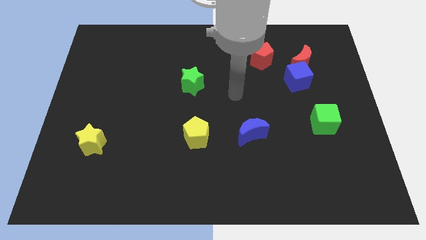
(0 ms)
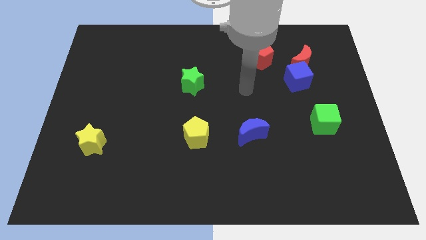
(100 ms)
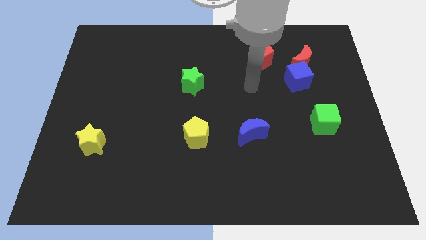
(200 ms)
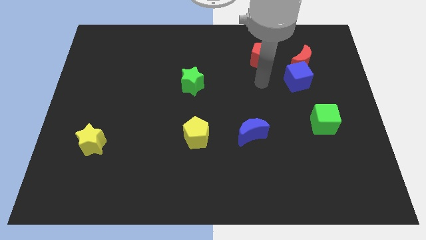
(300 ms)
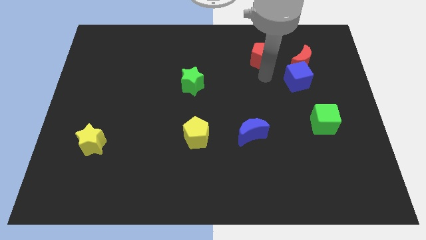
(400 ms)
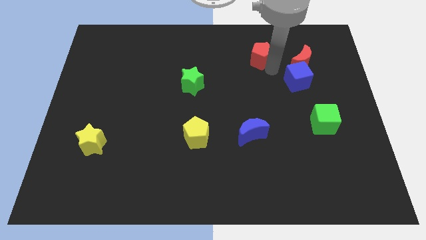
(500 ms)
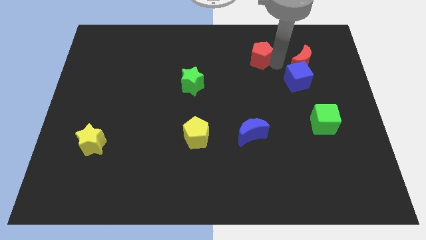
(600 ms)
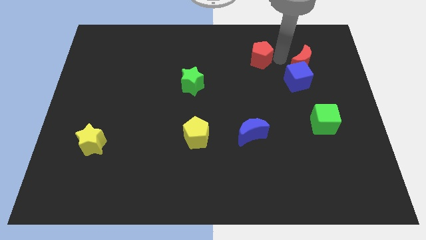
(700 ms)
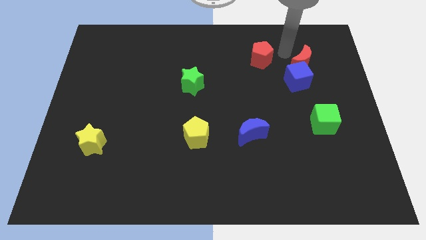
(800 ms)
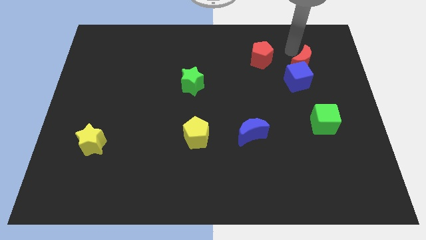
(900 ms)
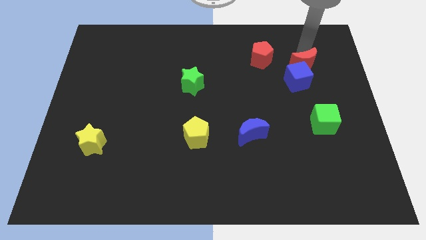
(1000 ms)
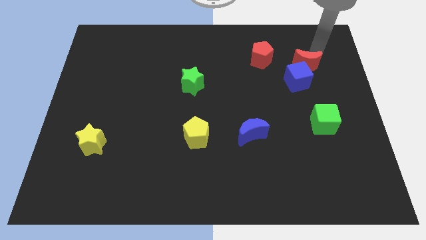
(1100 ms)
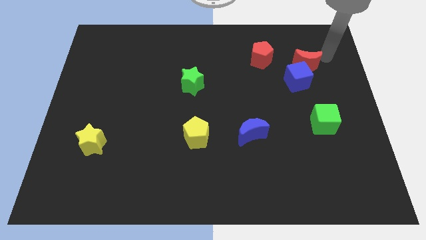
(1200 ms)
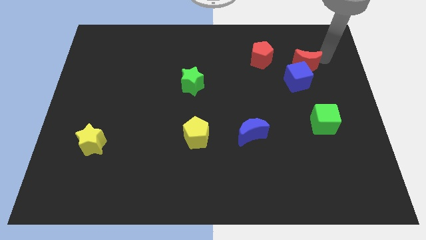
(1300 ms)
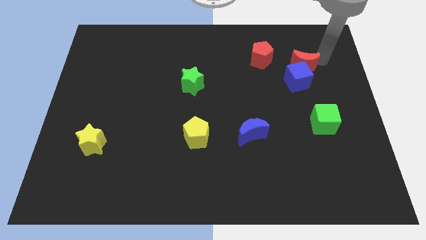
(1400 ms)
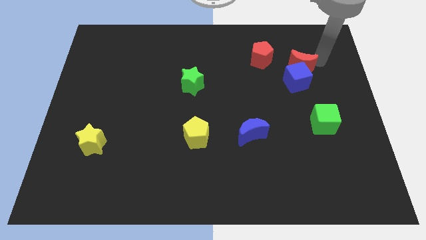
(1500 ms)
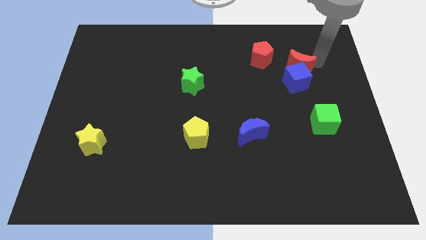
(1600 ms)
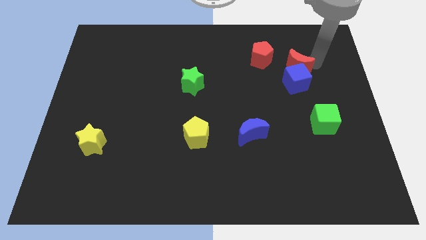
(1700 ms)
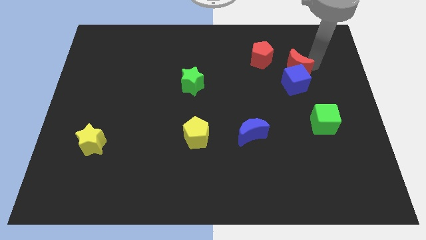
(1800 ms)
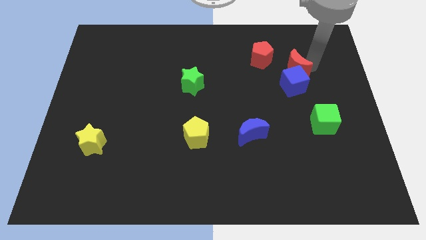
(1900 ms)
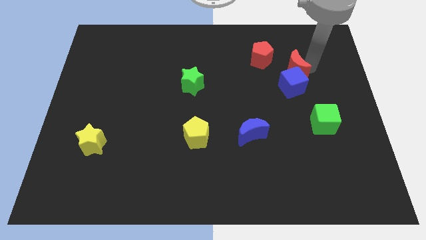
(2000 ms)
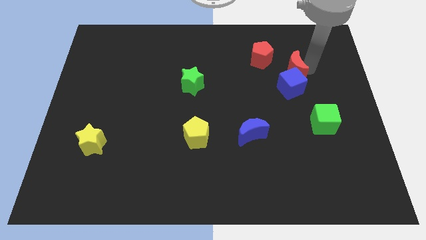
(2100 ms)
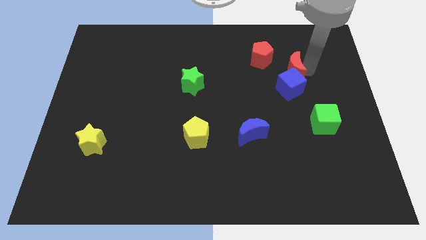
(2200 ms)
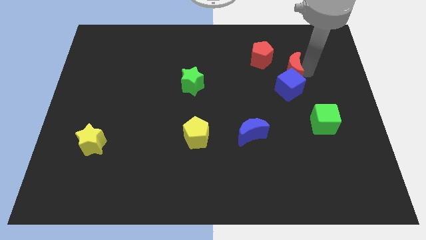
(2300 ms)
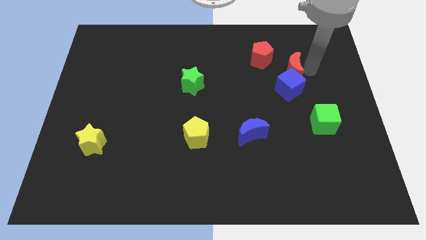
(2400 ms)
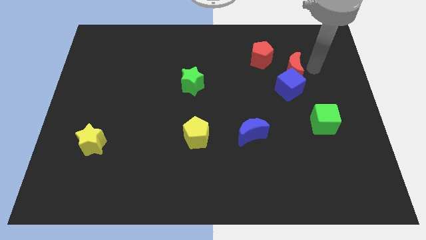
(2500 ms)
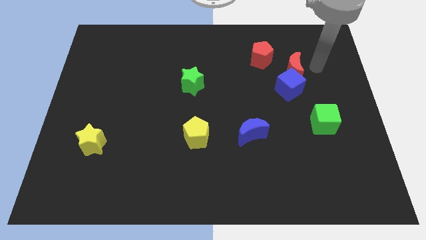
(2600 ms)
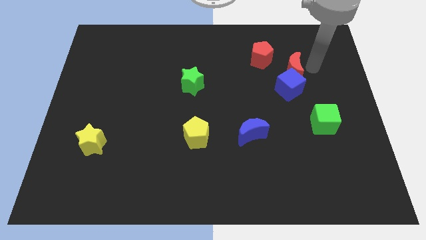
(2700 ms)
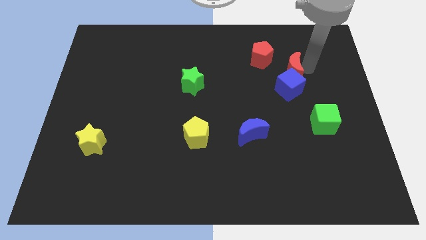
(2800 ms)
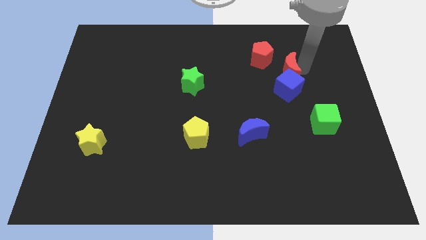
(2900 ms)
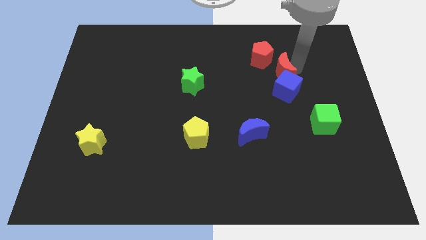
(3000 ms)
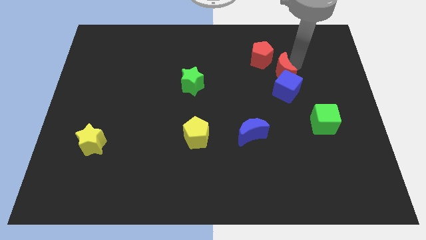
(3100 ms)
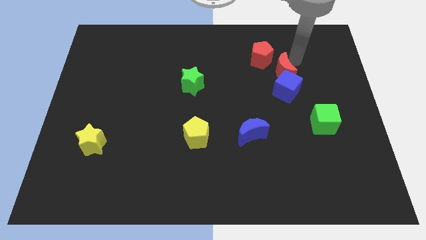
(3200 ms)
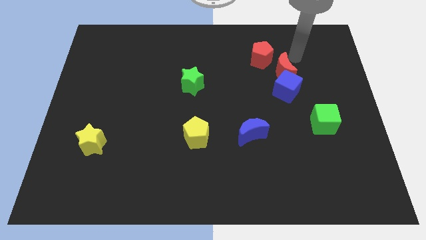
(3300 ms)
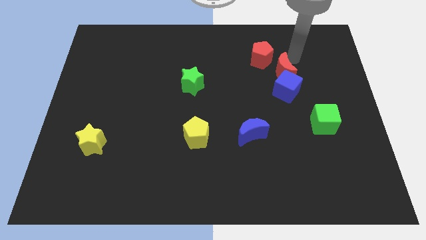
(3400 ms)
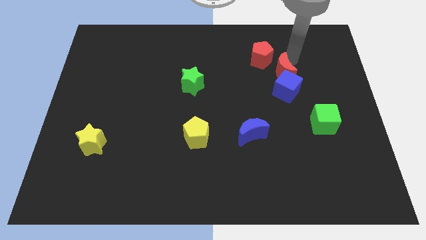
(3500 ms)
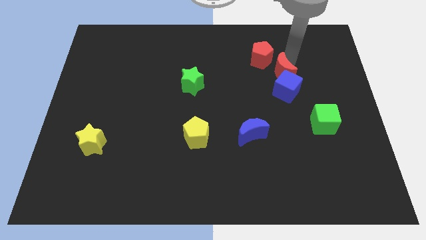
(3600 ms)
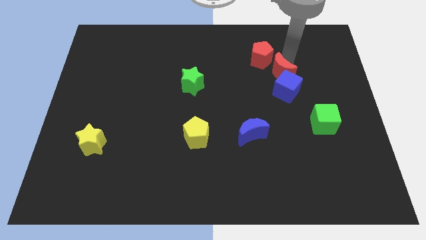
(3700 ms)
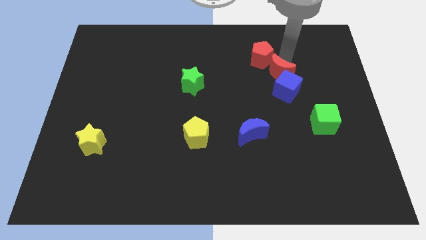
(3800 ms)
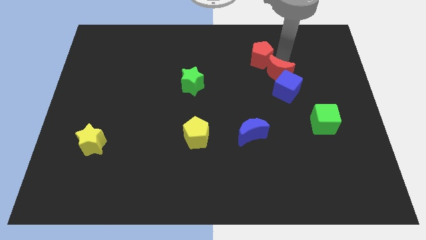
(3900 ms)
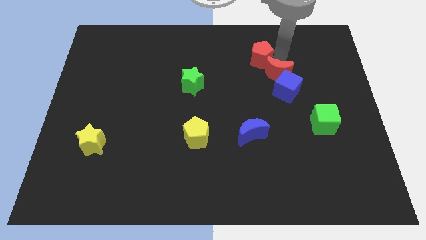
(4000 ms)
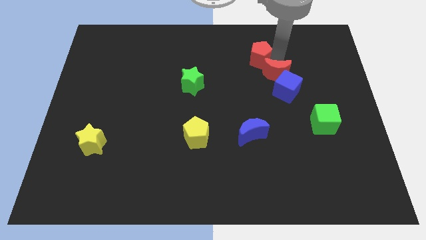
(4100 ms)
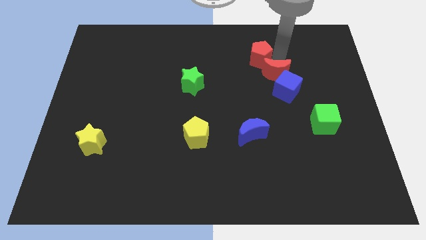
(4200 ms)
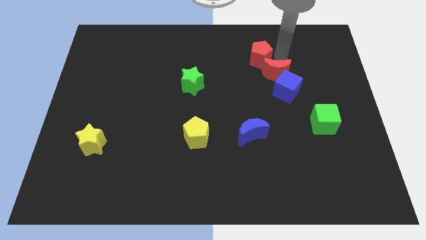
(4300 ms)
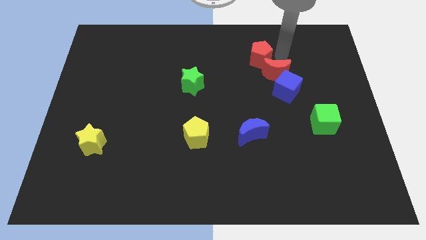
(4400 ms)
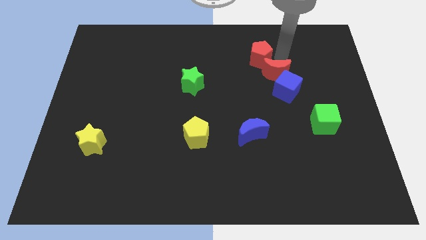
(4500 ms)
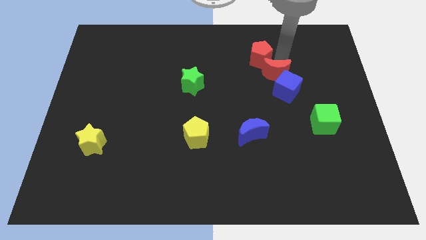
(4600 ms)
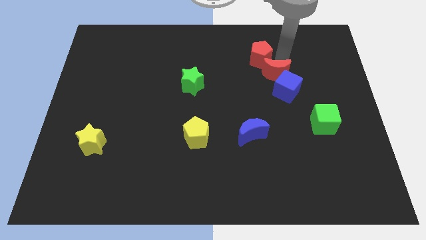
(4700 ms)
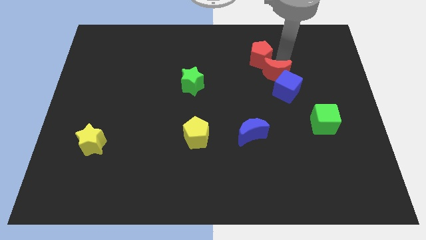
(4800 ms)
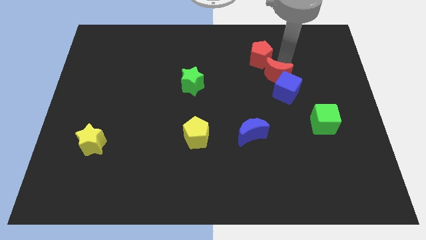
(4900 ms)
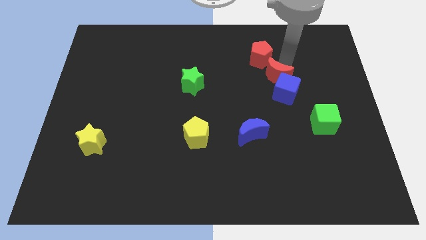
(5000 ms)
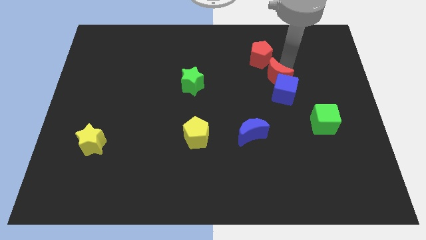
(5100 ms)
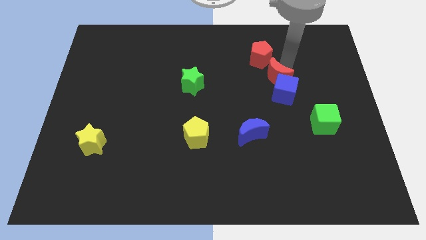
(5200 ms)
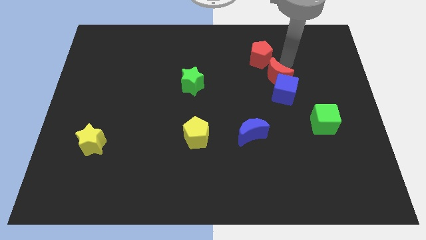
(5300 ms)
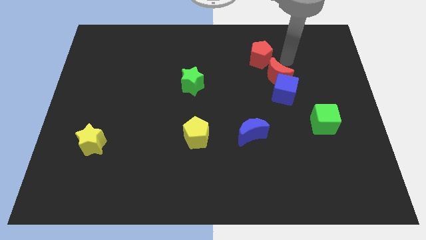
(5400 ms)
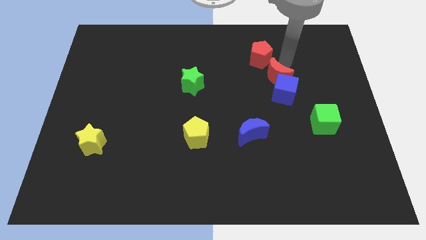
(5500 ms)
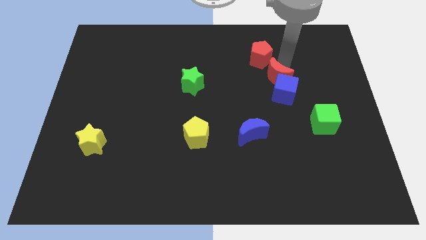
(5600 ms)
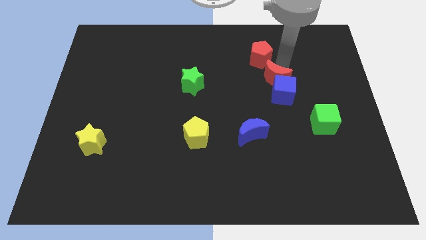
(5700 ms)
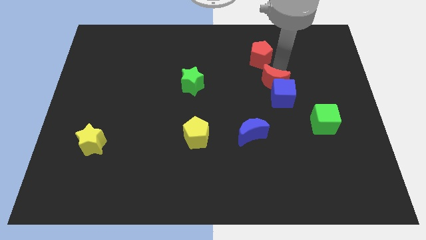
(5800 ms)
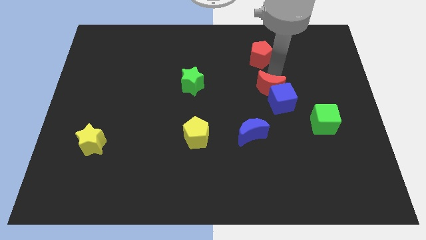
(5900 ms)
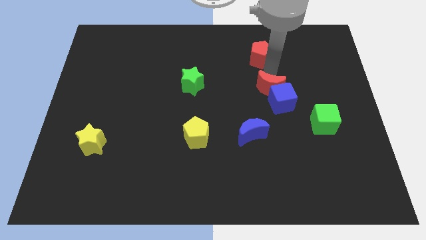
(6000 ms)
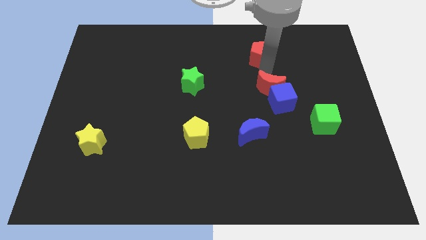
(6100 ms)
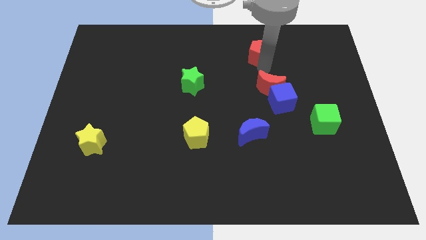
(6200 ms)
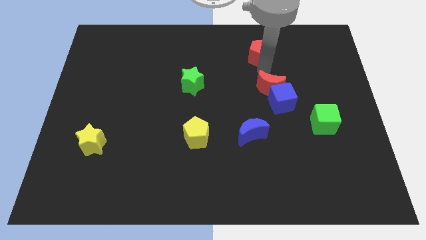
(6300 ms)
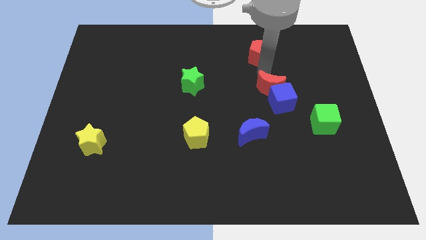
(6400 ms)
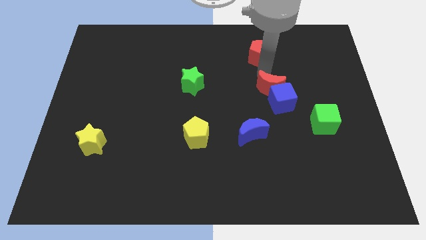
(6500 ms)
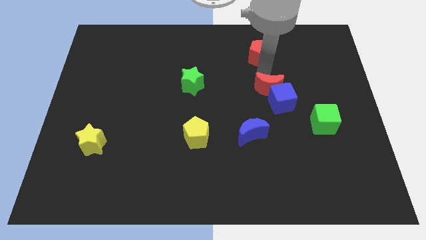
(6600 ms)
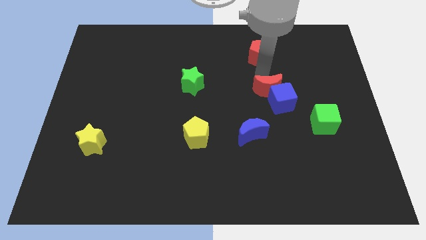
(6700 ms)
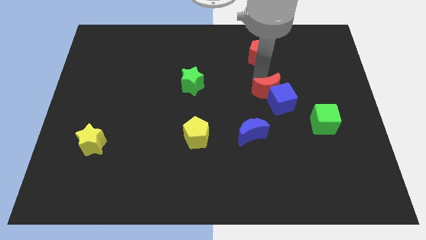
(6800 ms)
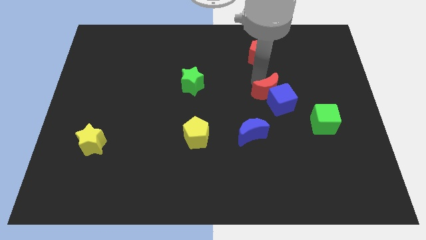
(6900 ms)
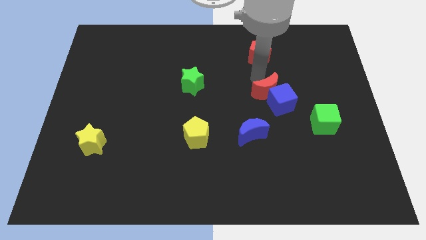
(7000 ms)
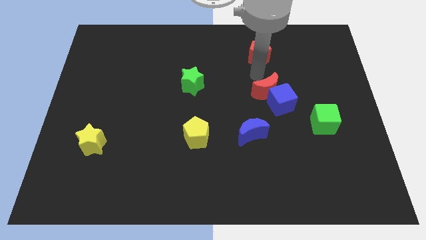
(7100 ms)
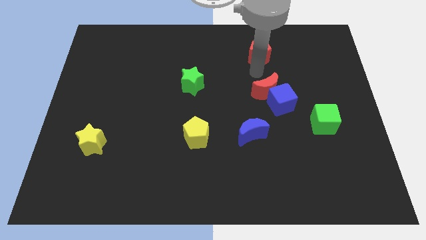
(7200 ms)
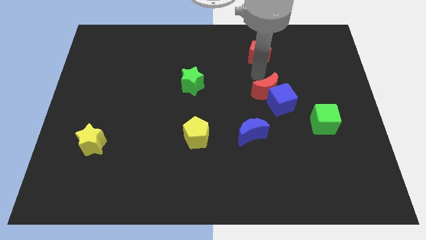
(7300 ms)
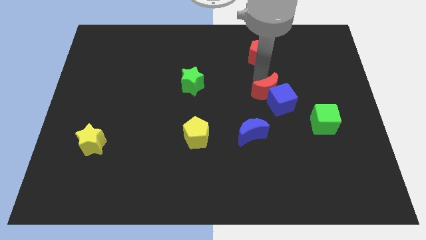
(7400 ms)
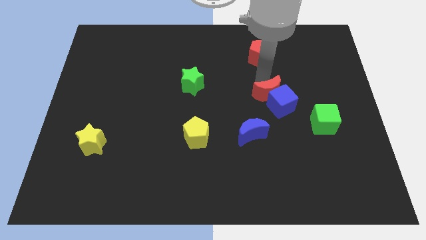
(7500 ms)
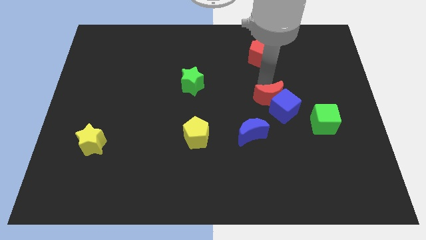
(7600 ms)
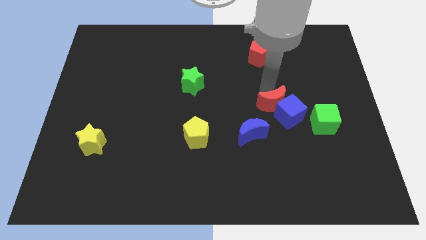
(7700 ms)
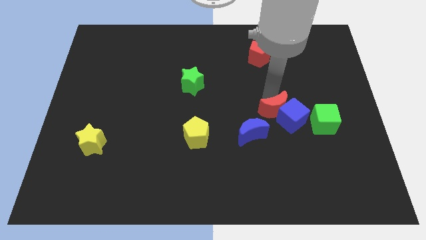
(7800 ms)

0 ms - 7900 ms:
move the red moon to the left side of the green cube
